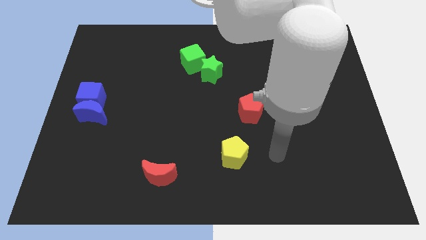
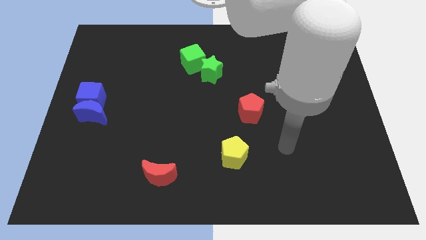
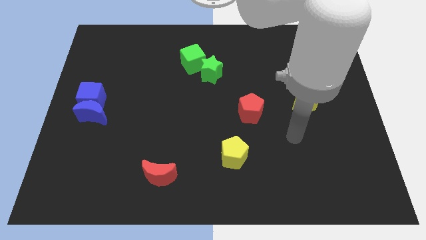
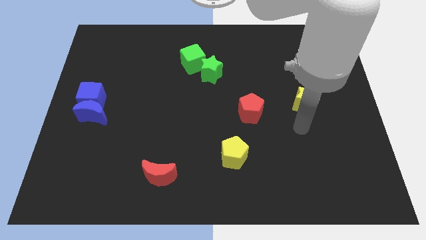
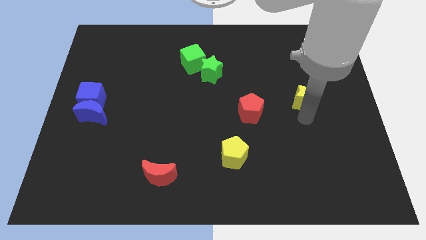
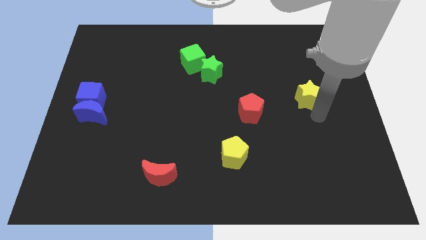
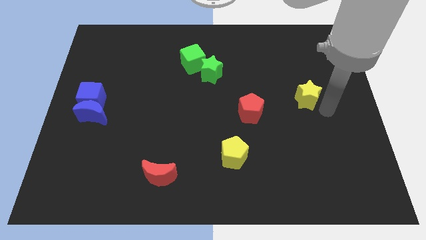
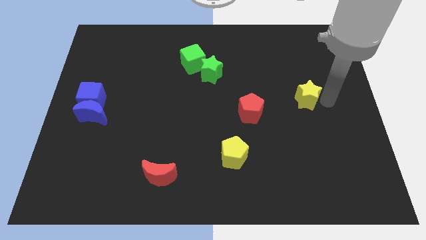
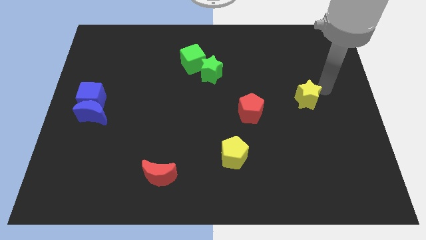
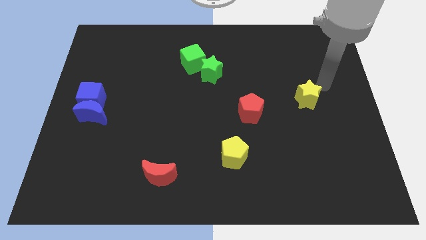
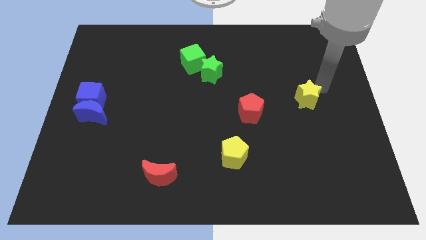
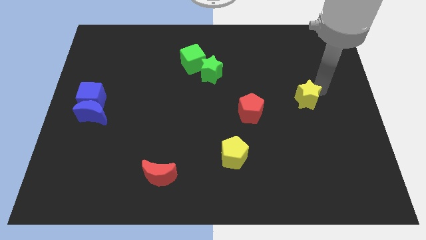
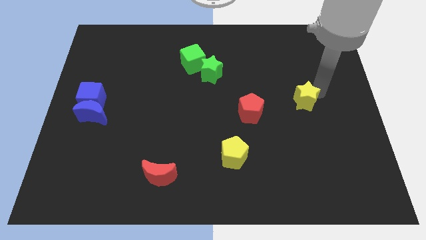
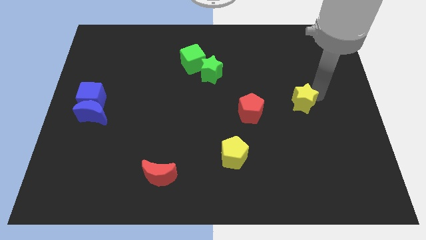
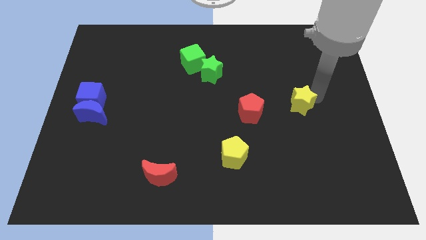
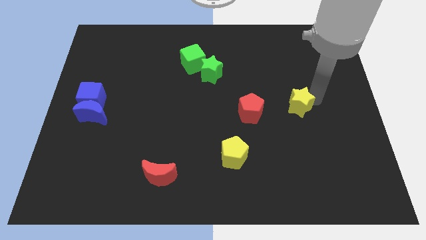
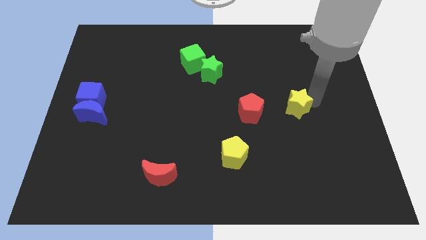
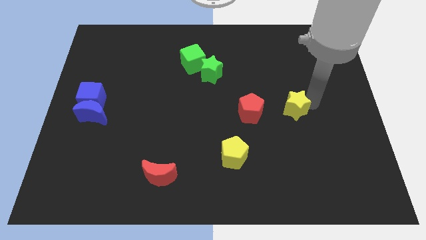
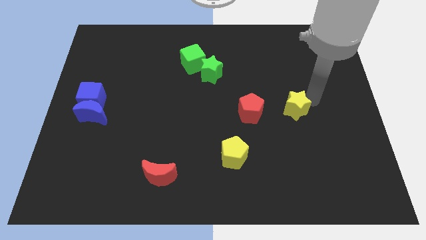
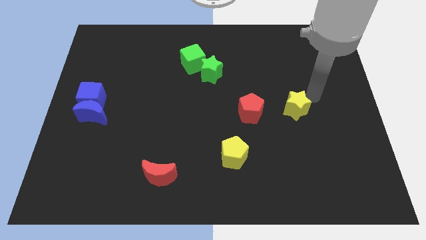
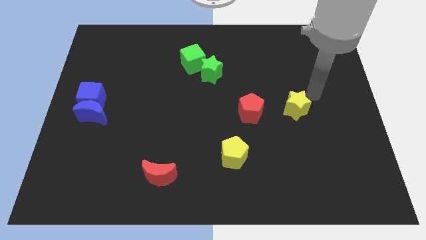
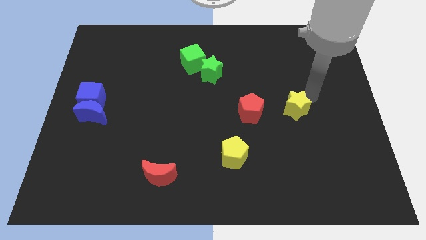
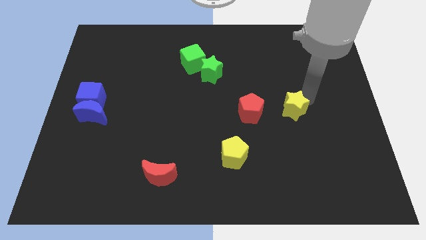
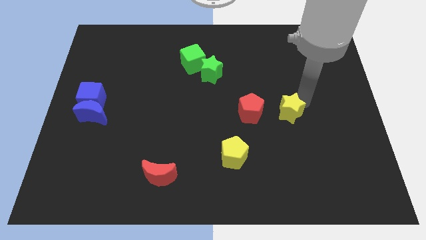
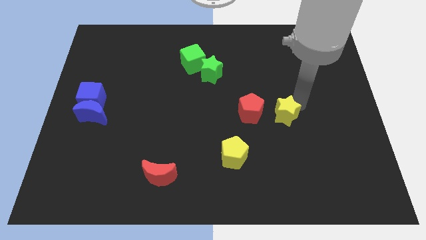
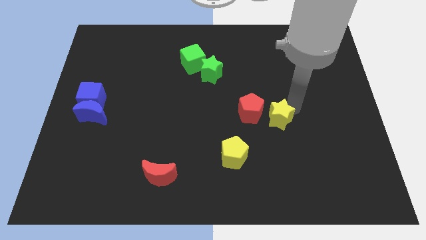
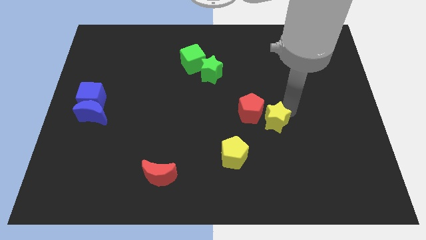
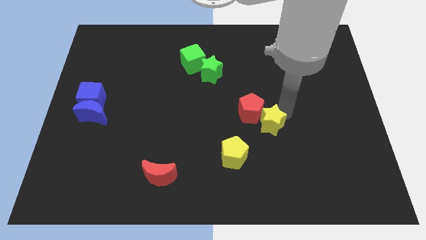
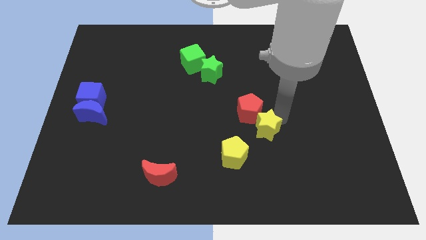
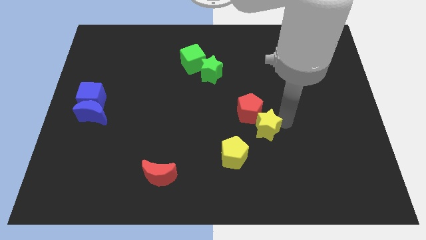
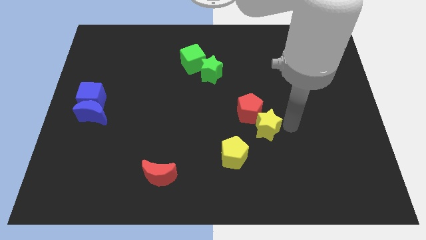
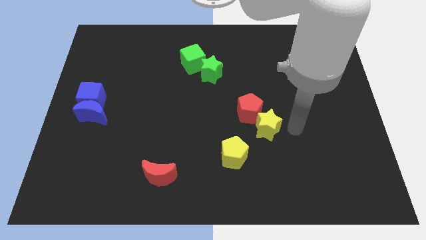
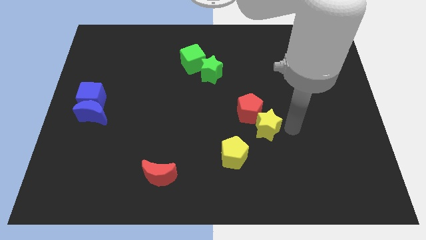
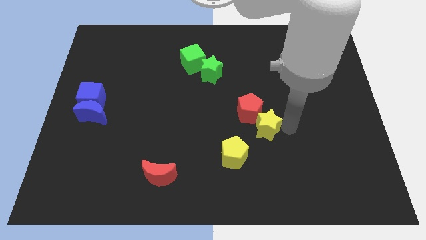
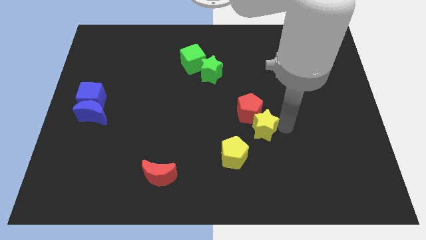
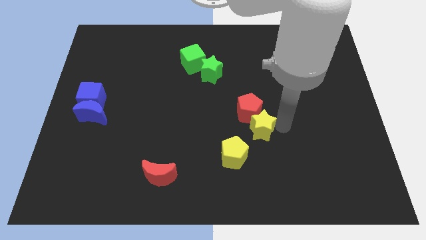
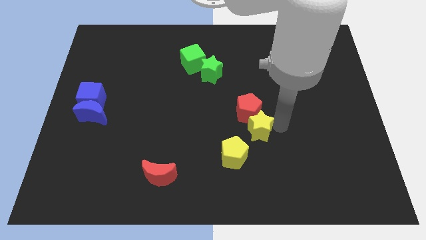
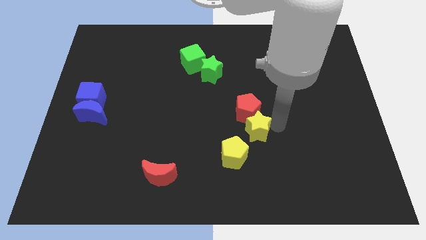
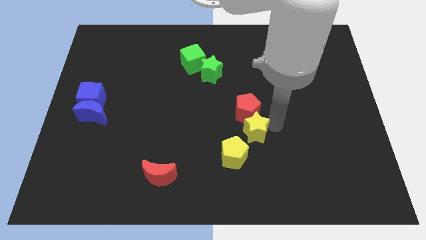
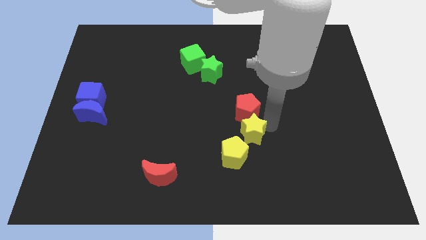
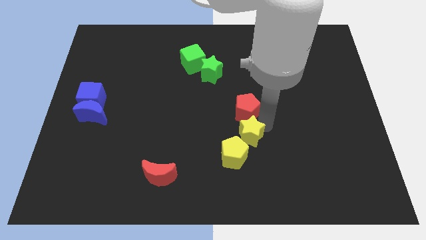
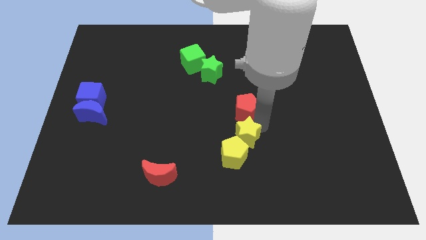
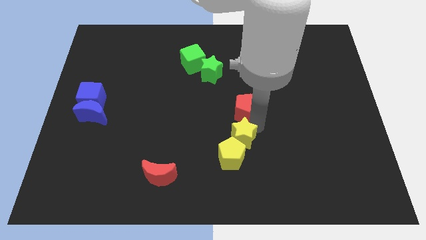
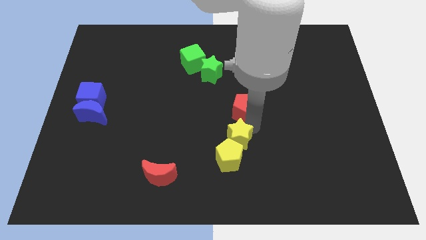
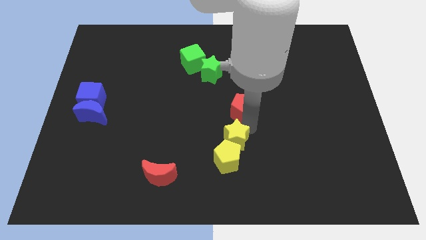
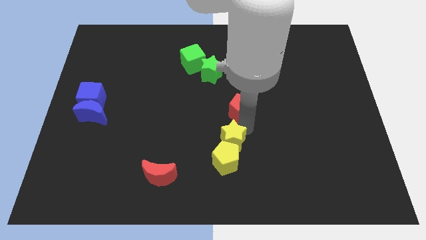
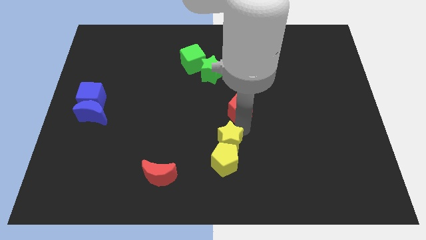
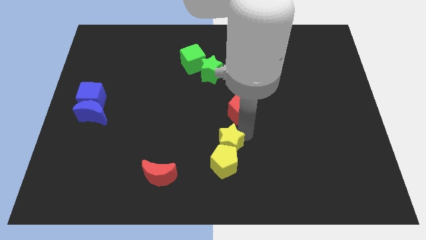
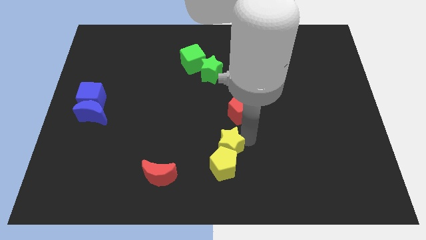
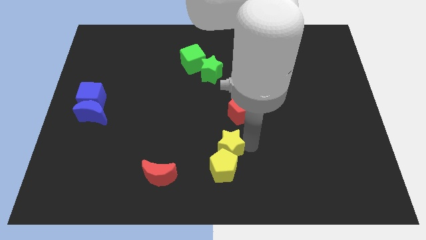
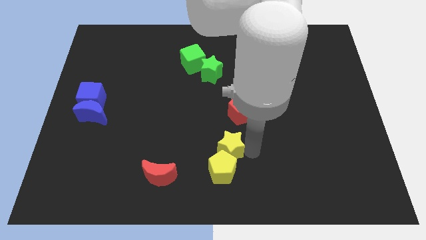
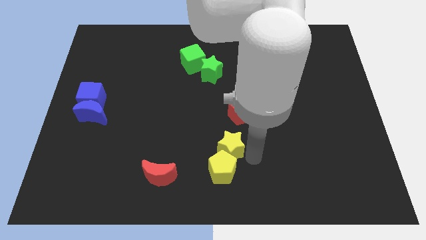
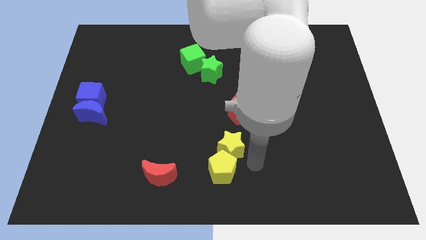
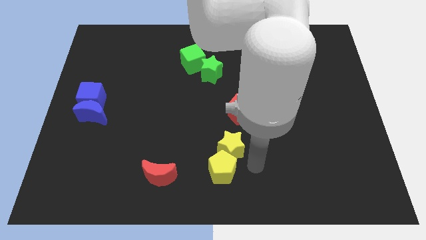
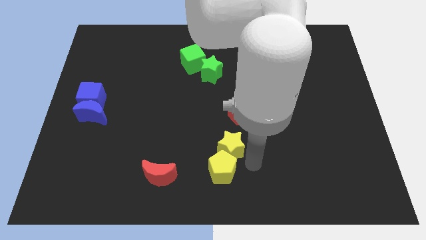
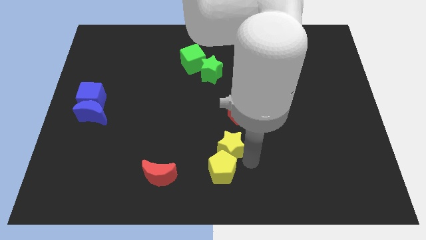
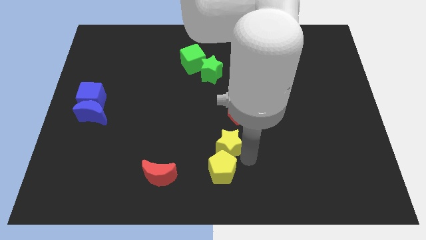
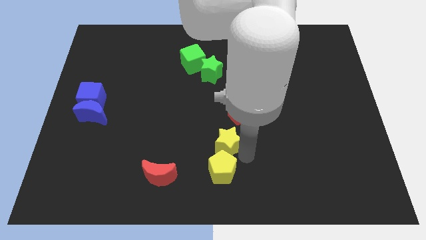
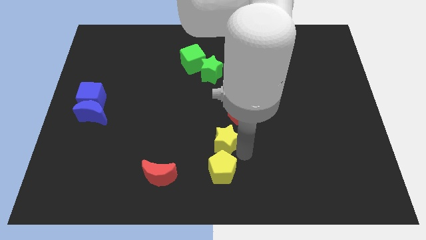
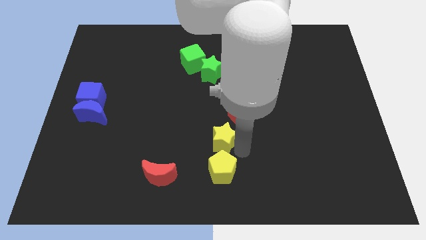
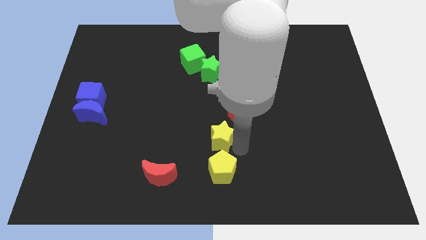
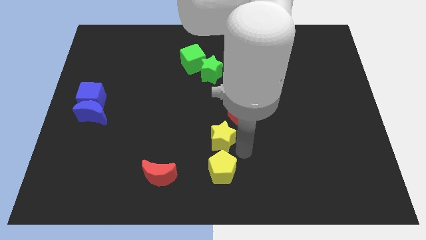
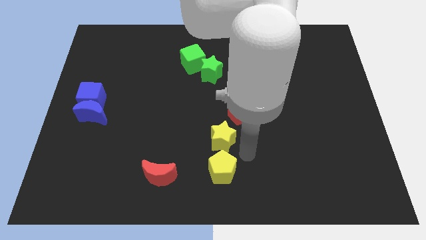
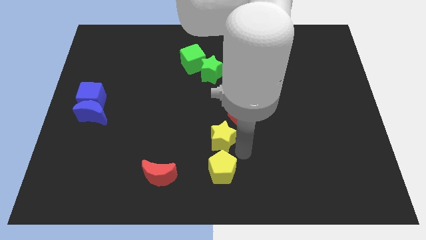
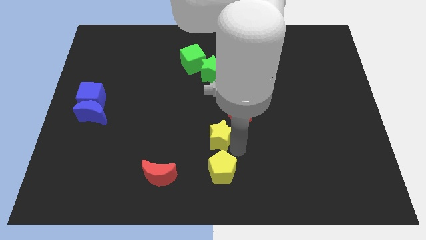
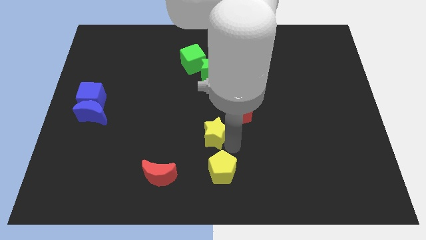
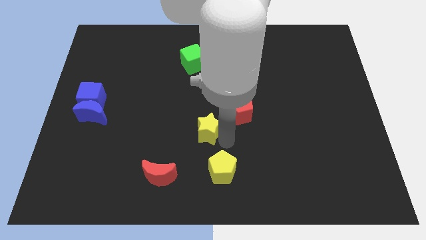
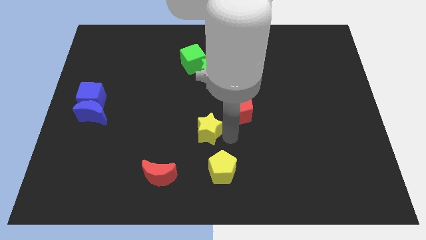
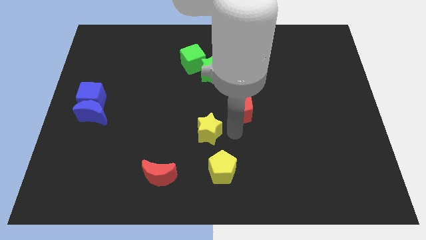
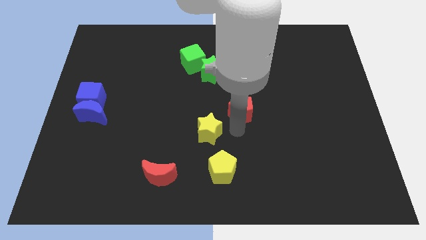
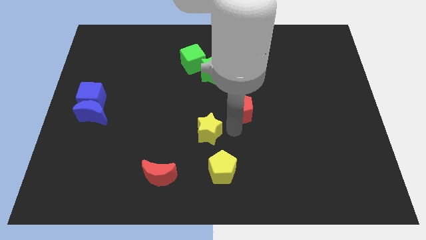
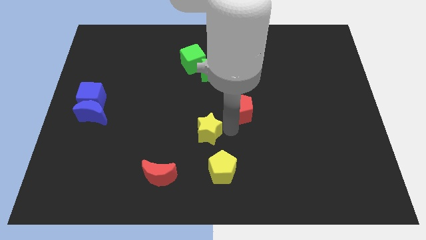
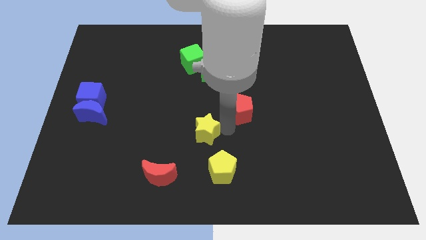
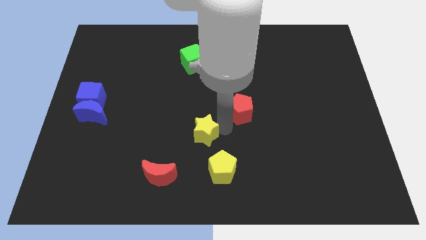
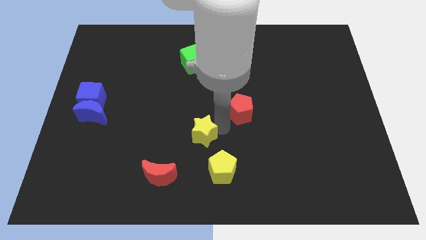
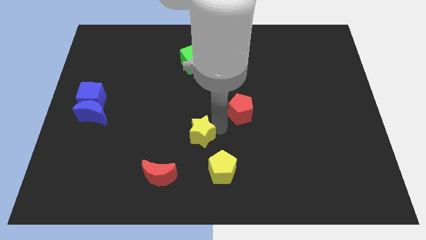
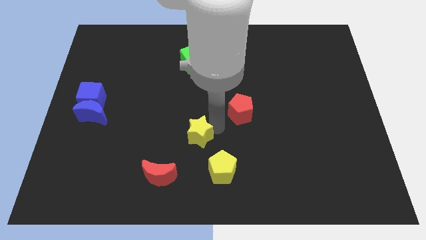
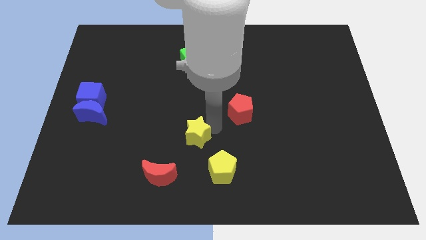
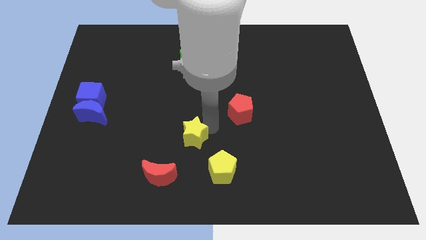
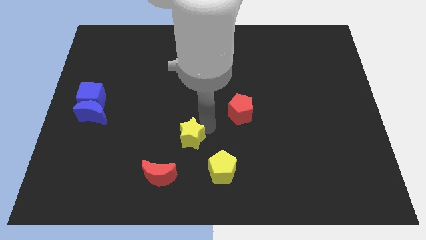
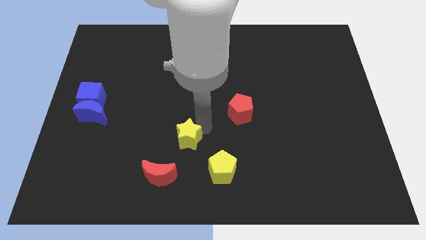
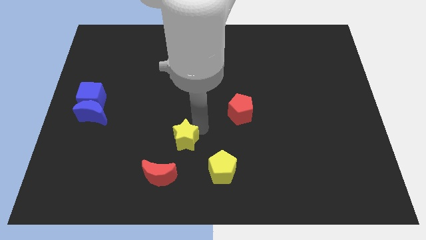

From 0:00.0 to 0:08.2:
put the yellow star to the top of the red moon
